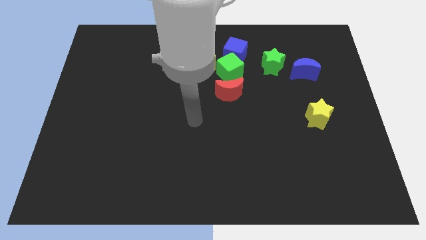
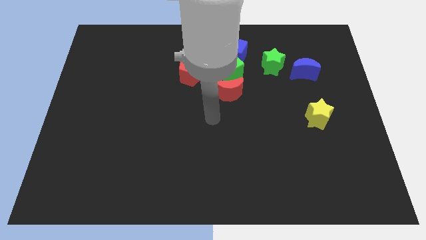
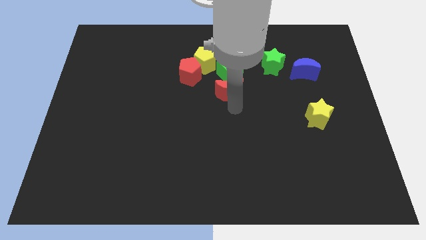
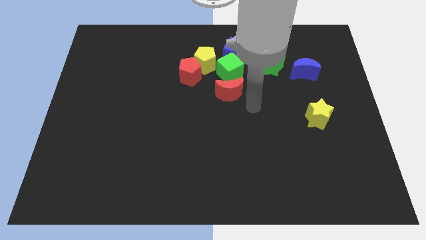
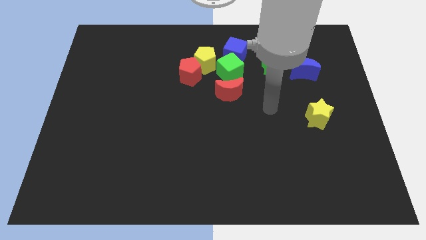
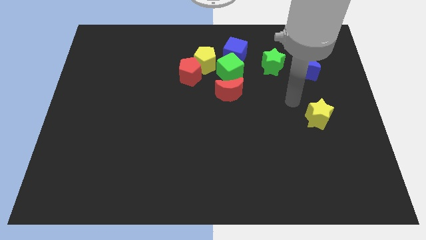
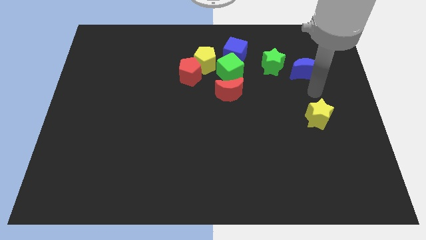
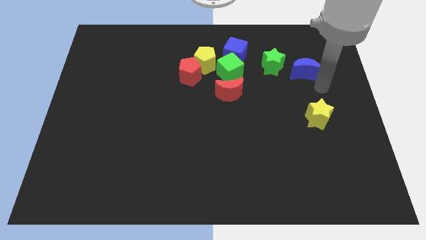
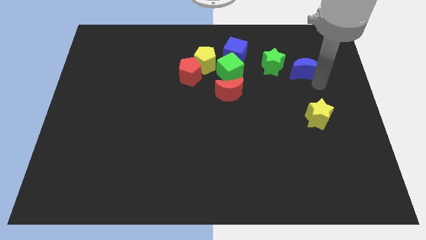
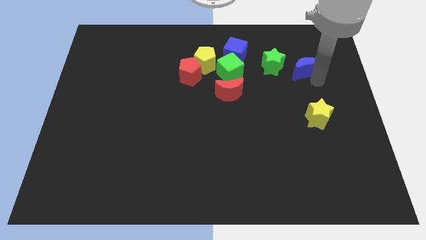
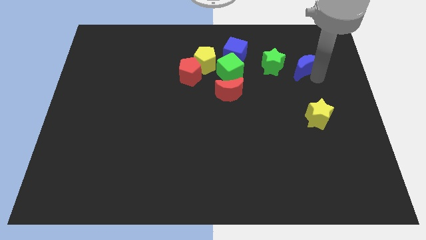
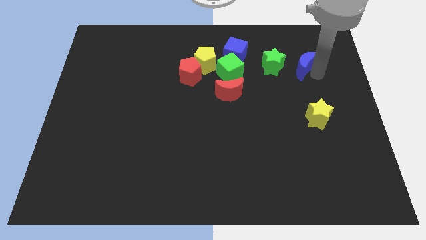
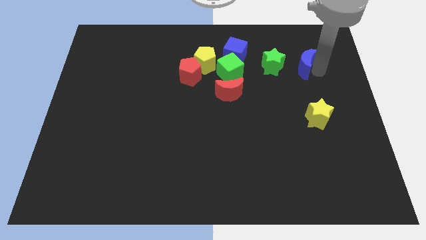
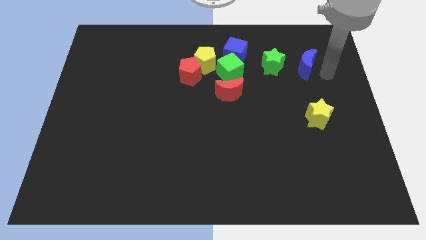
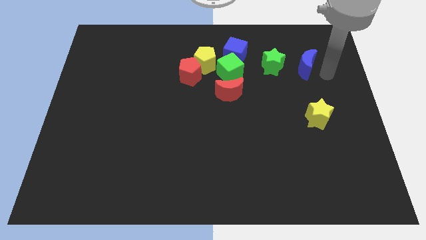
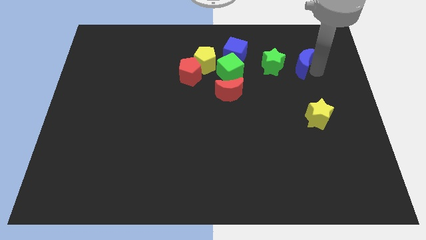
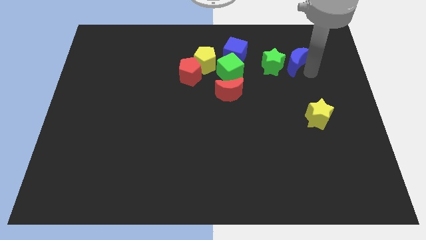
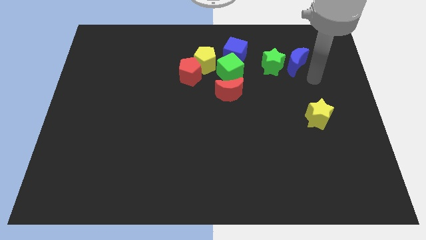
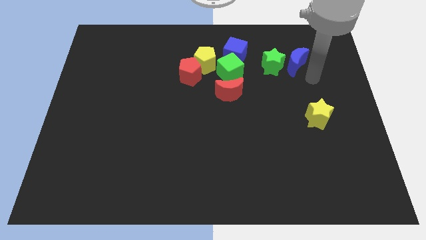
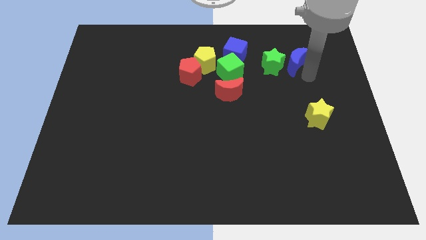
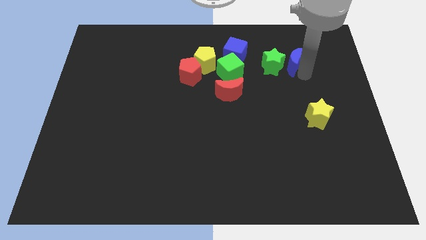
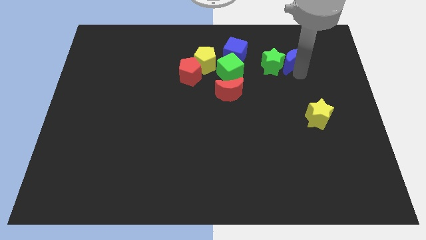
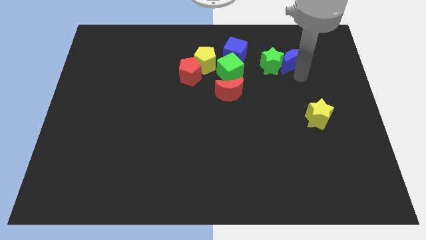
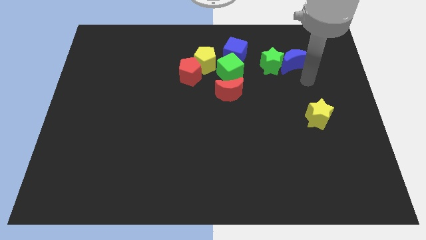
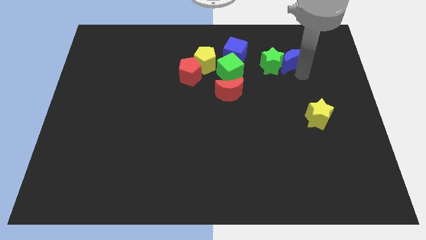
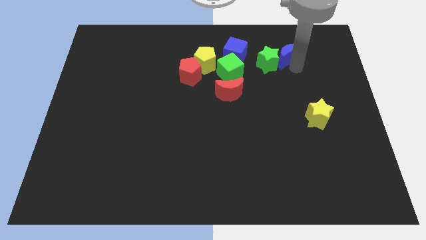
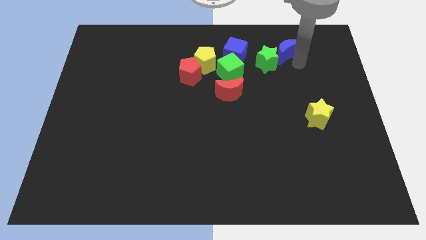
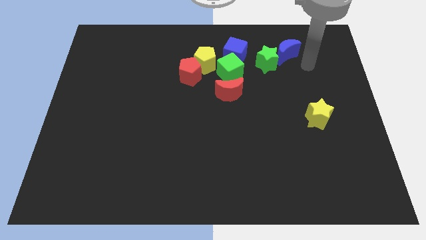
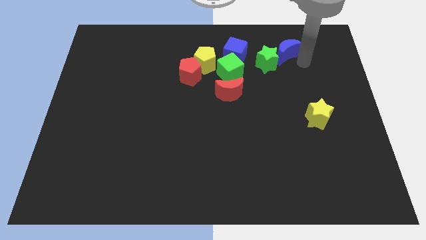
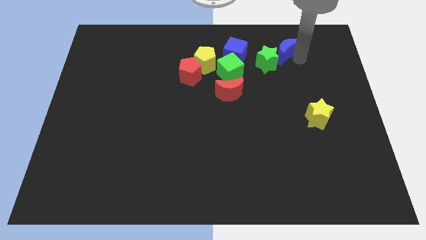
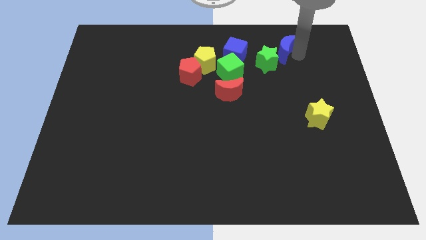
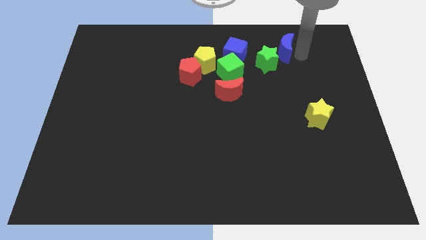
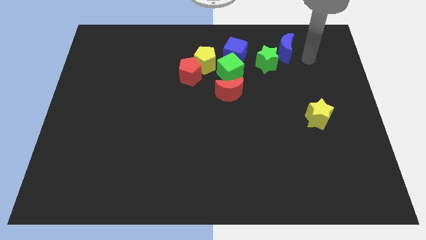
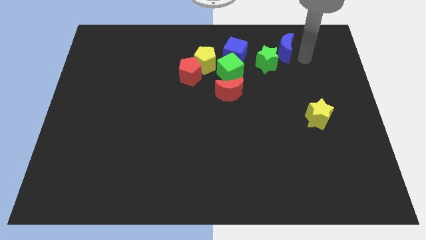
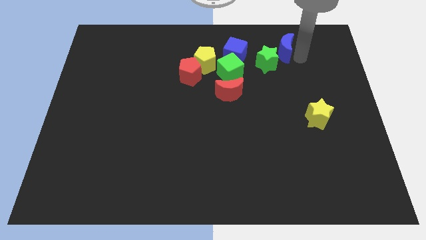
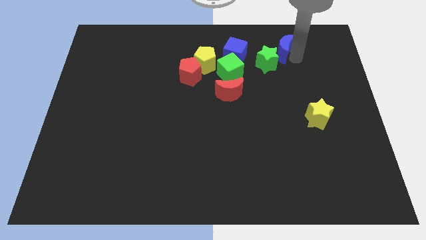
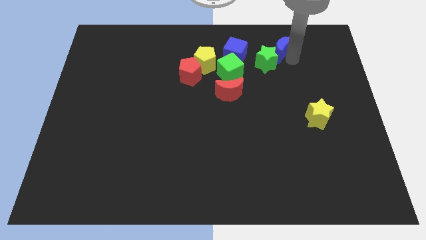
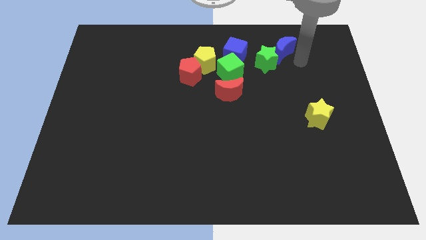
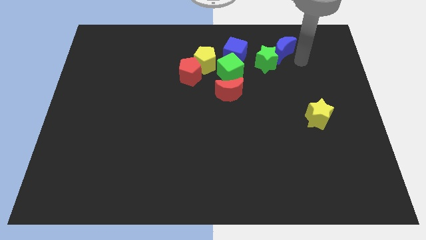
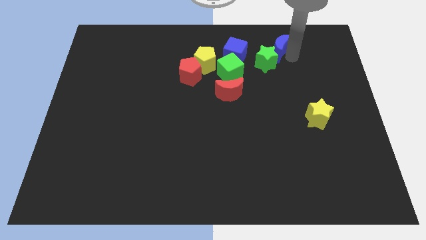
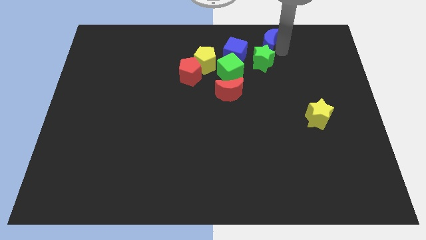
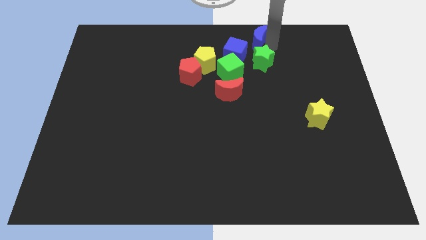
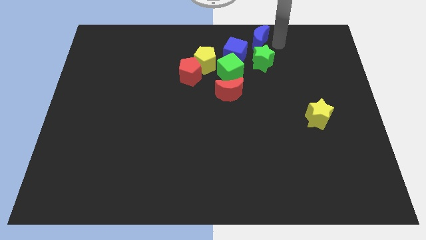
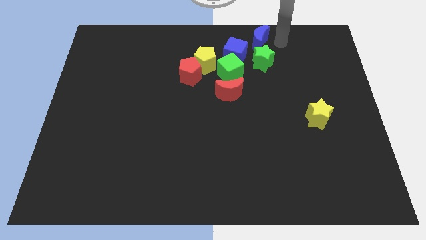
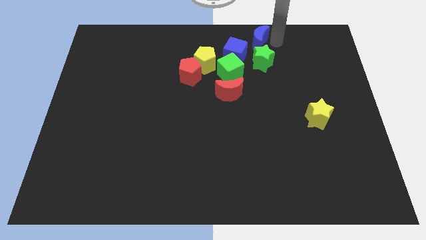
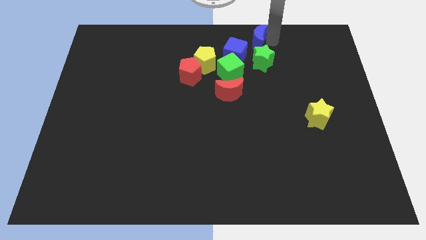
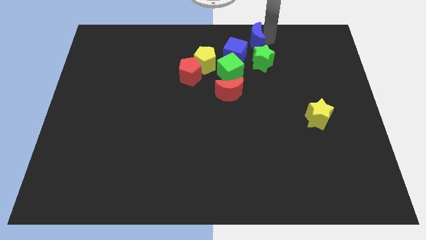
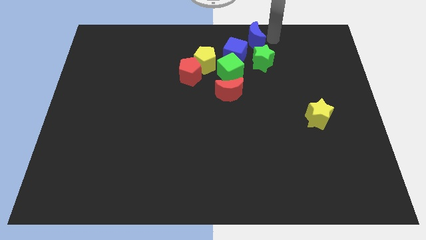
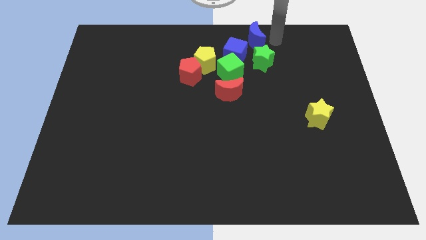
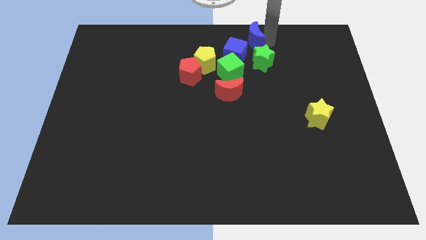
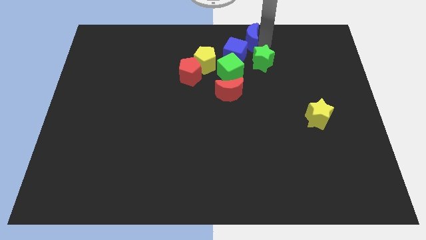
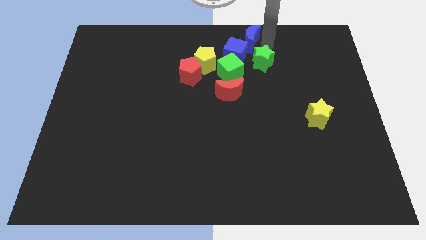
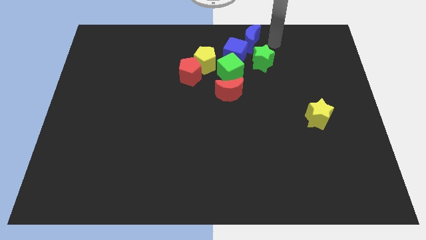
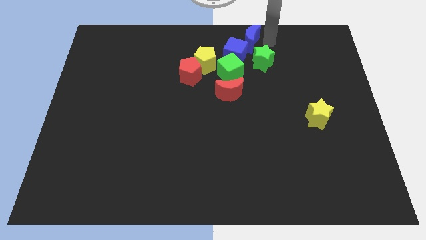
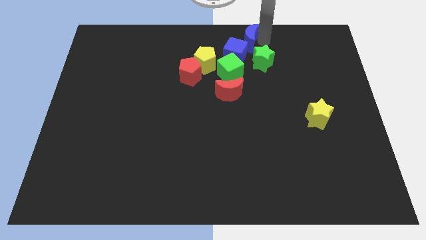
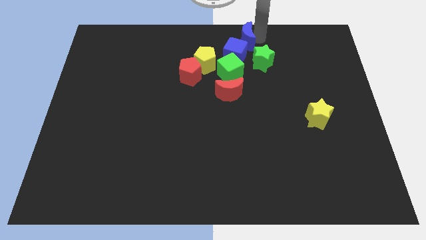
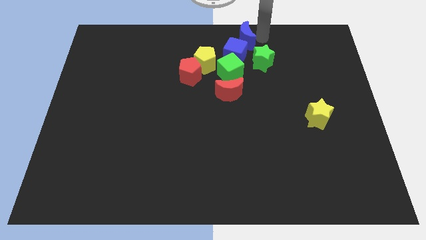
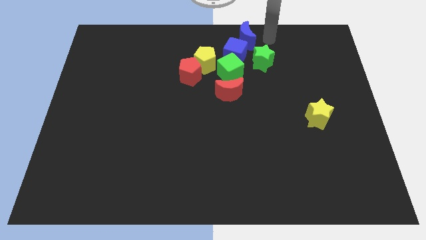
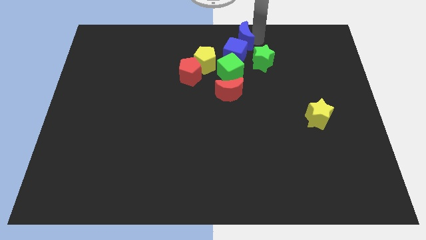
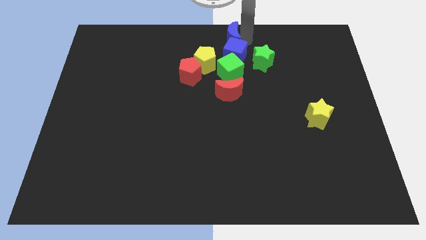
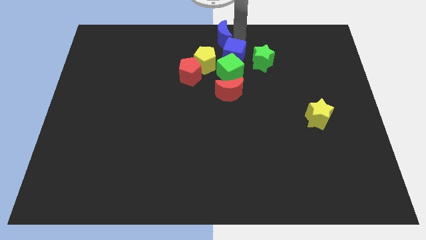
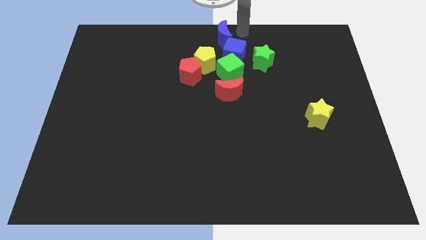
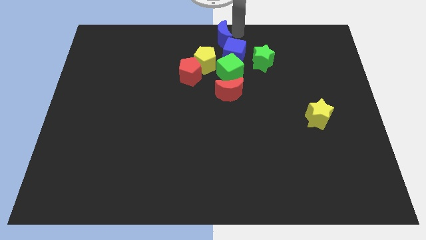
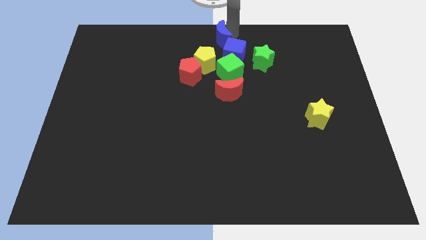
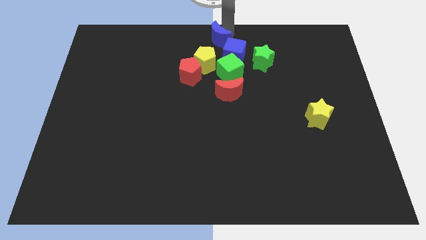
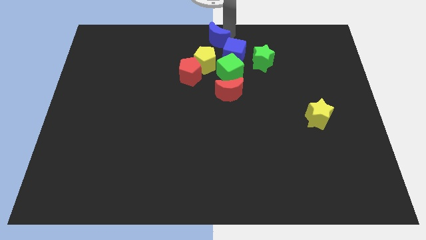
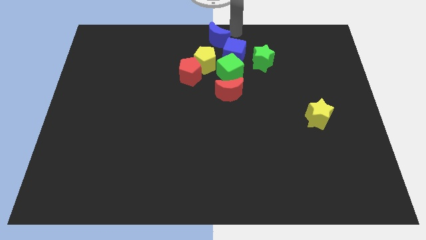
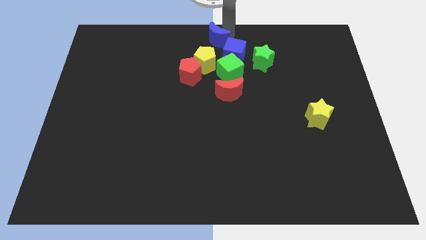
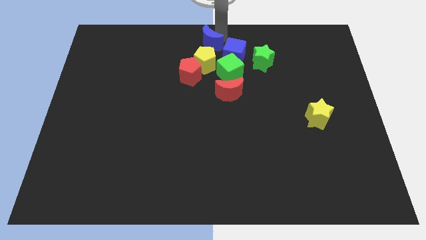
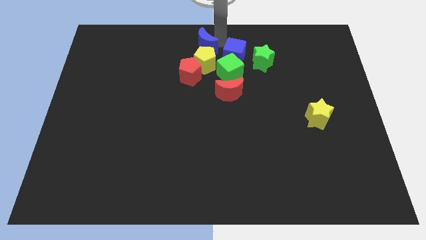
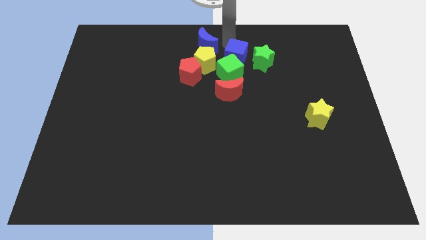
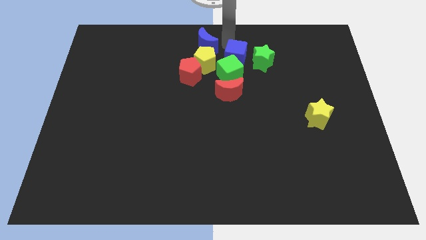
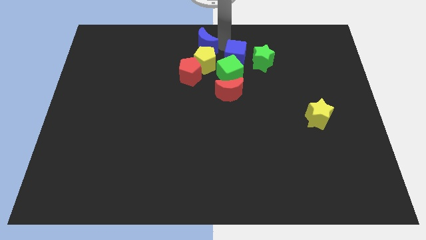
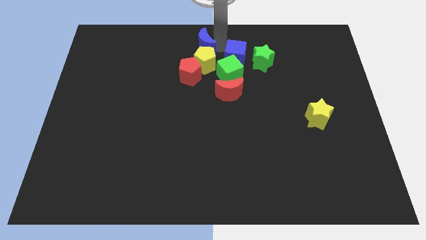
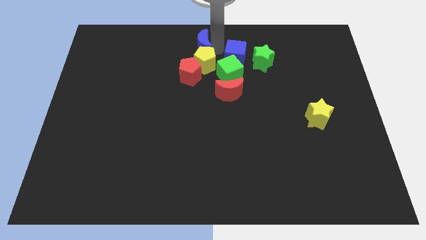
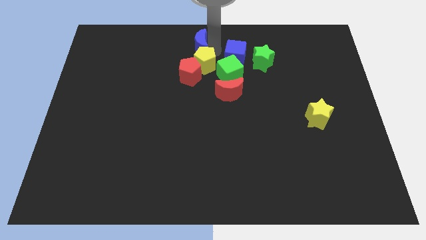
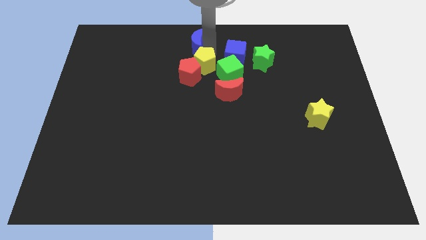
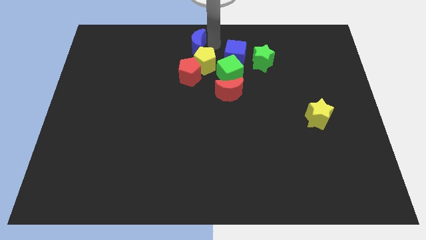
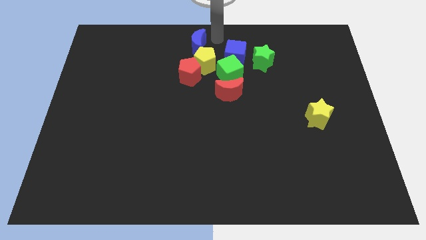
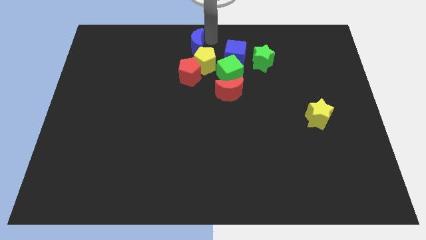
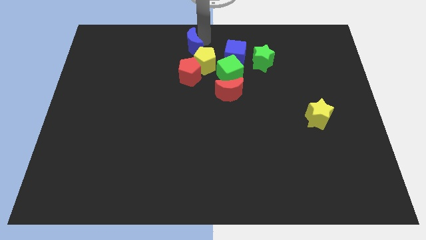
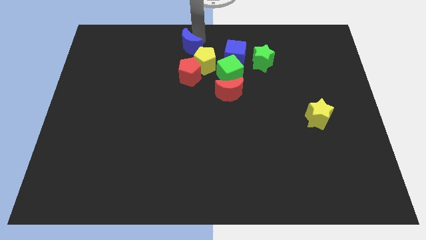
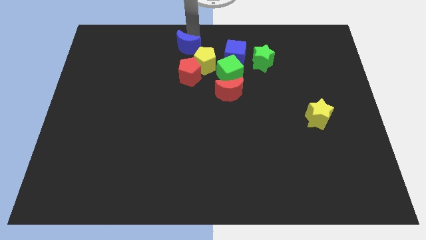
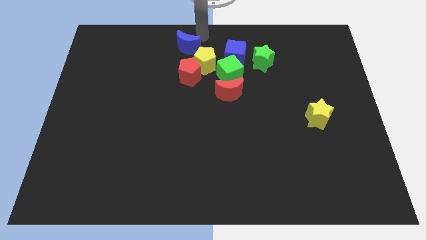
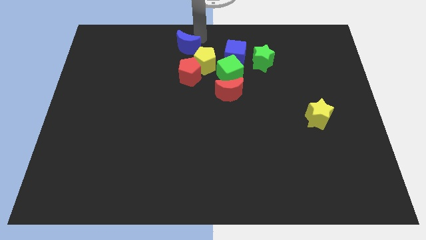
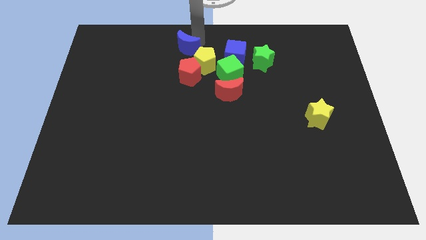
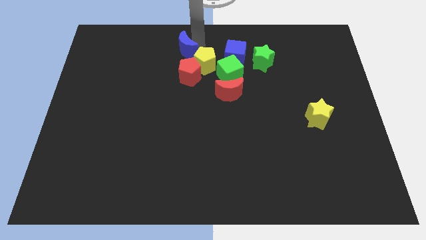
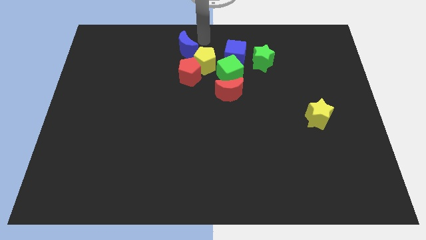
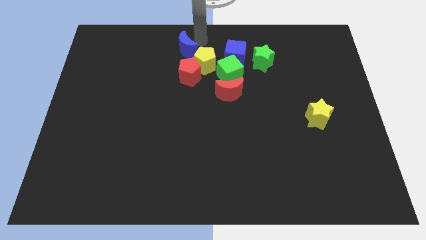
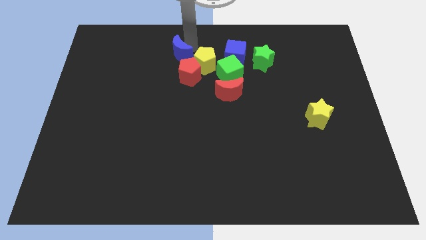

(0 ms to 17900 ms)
put the blue moon to the top left of the red pentagon
